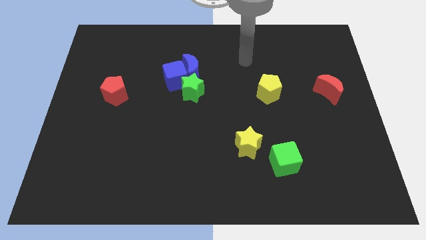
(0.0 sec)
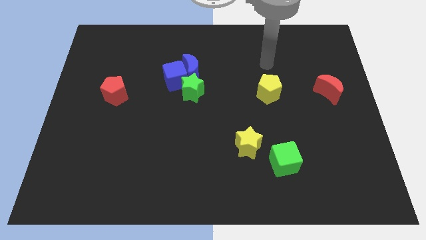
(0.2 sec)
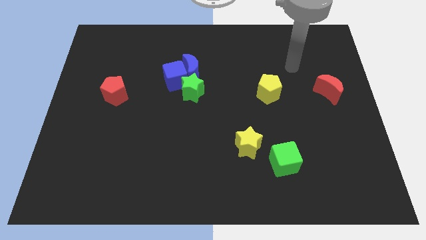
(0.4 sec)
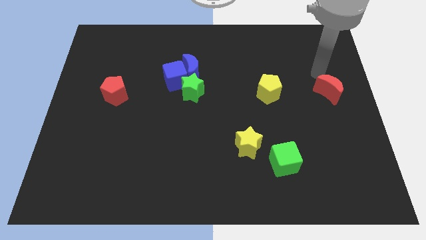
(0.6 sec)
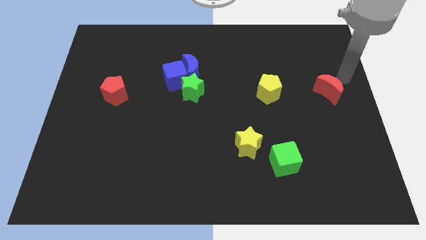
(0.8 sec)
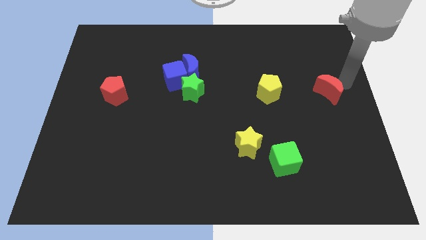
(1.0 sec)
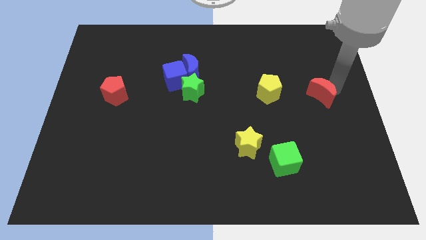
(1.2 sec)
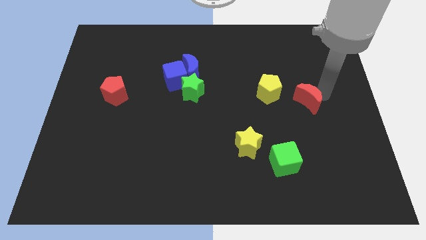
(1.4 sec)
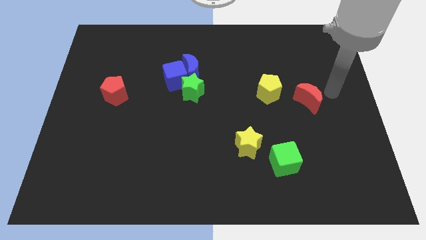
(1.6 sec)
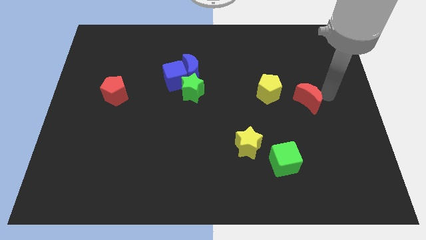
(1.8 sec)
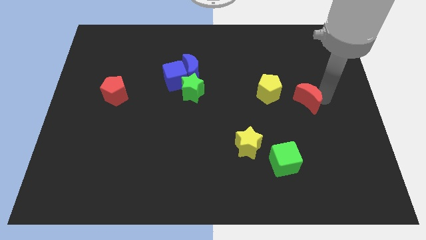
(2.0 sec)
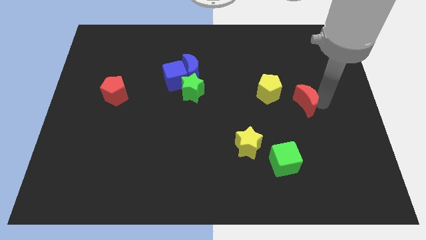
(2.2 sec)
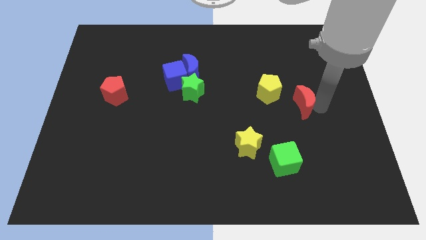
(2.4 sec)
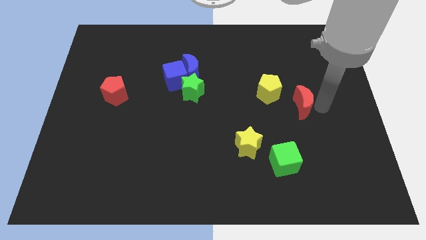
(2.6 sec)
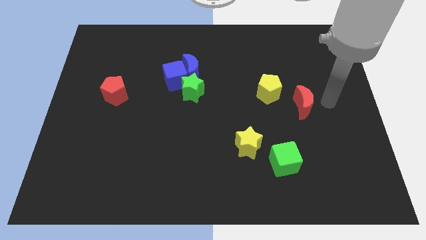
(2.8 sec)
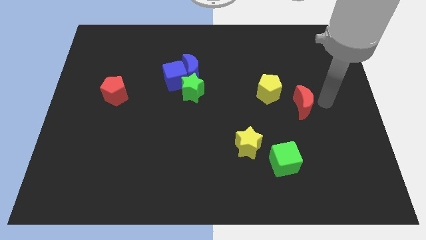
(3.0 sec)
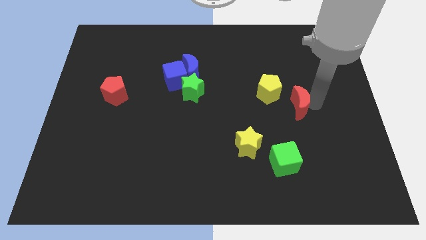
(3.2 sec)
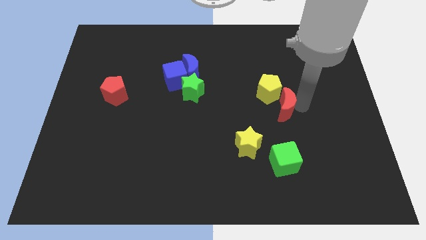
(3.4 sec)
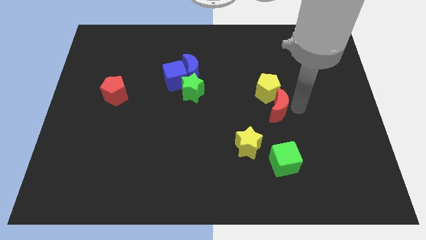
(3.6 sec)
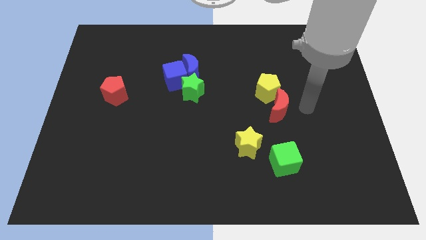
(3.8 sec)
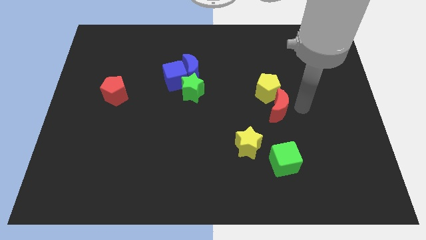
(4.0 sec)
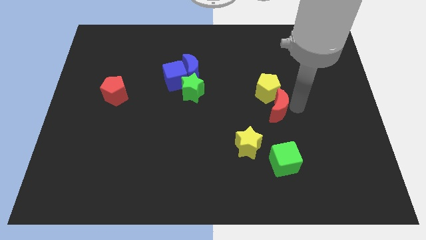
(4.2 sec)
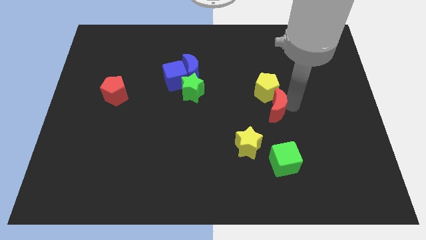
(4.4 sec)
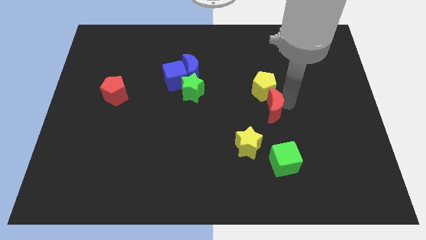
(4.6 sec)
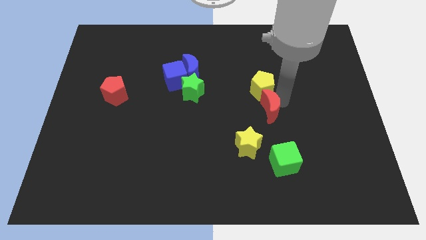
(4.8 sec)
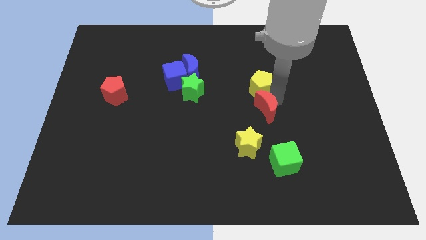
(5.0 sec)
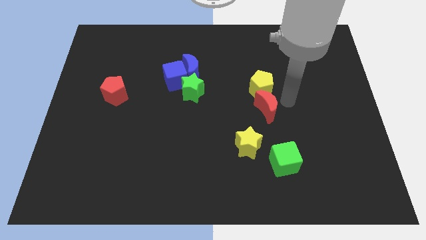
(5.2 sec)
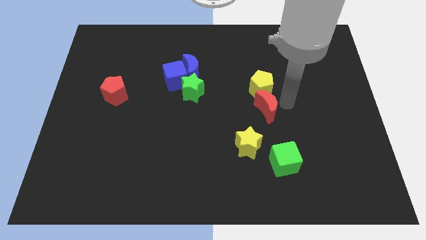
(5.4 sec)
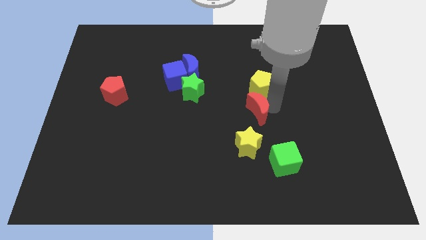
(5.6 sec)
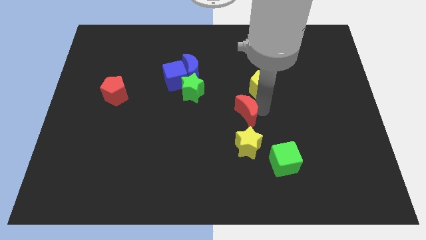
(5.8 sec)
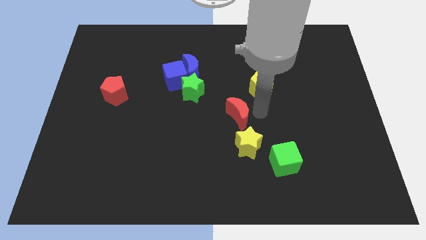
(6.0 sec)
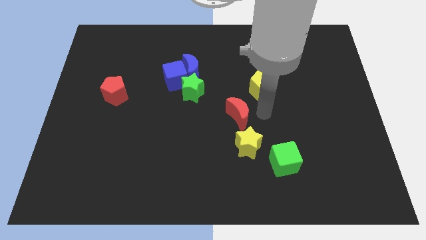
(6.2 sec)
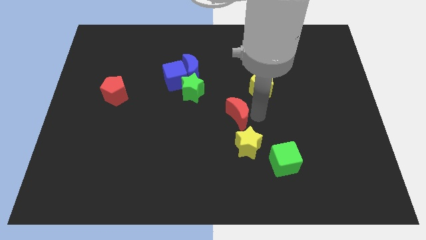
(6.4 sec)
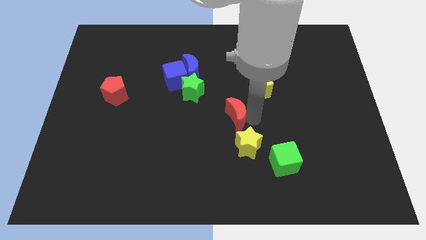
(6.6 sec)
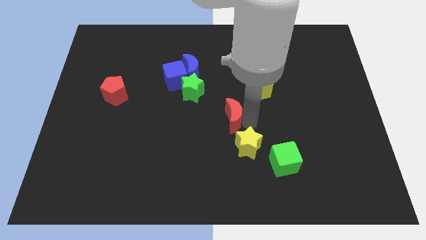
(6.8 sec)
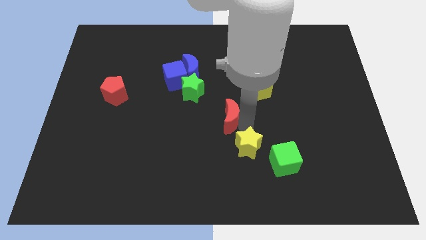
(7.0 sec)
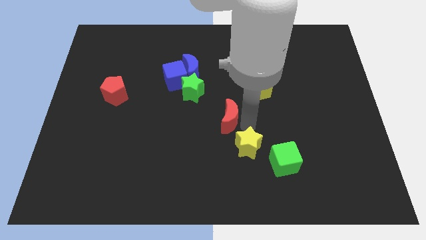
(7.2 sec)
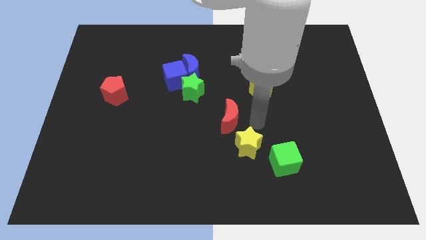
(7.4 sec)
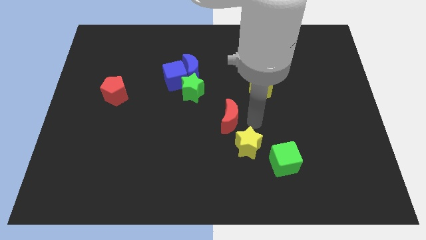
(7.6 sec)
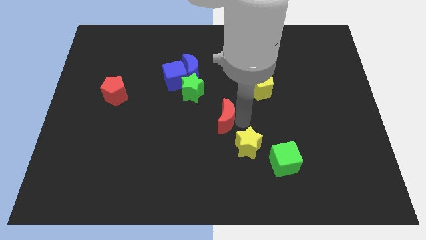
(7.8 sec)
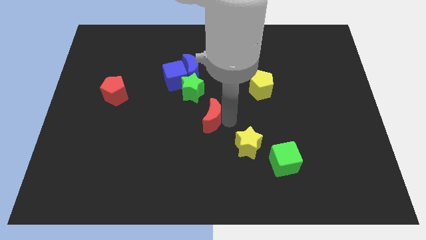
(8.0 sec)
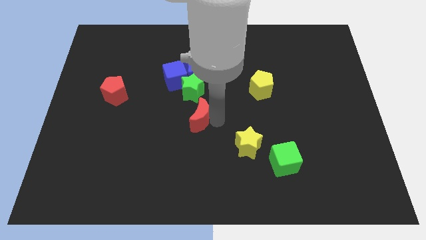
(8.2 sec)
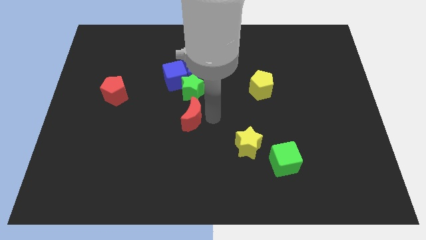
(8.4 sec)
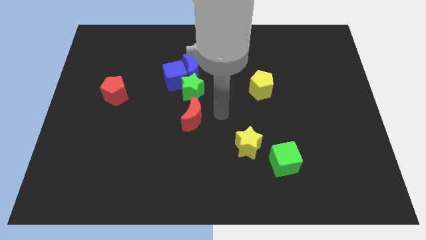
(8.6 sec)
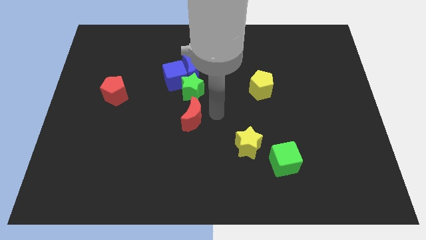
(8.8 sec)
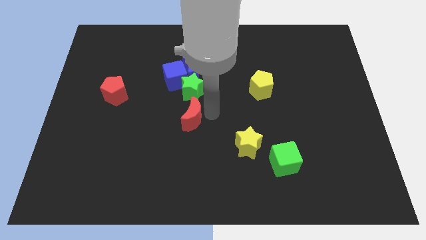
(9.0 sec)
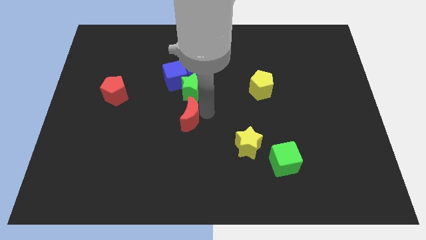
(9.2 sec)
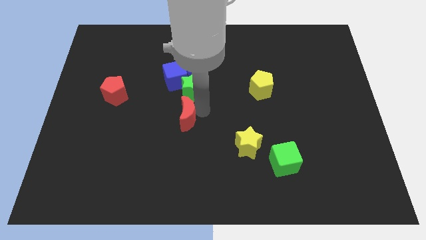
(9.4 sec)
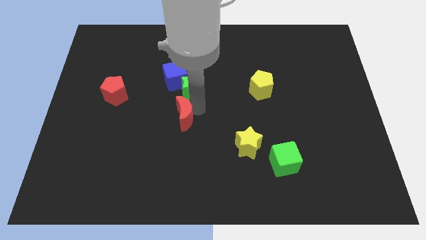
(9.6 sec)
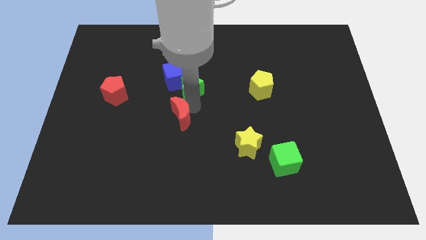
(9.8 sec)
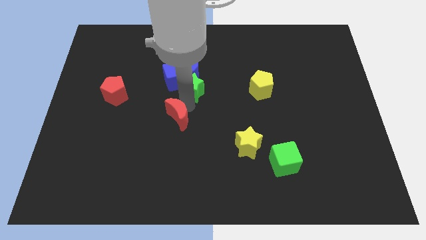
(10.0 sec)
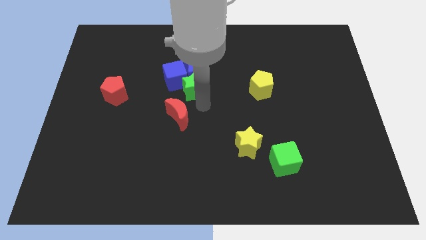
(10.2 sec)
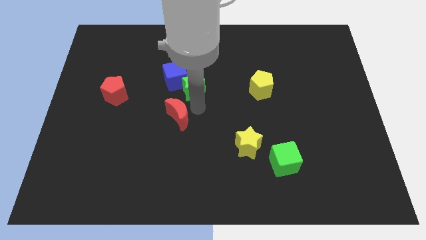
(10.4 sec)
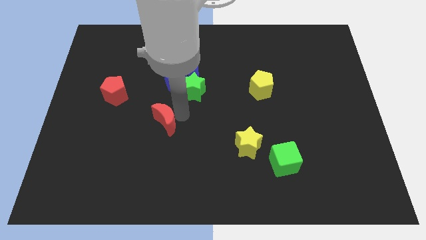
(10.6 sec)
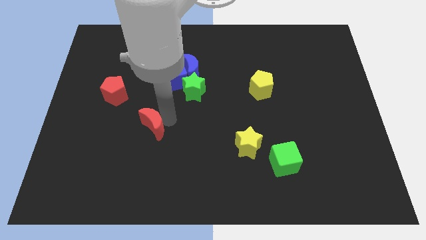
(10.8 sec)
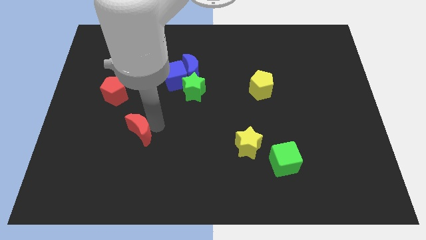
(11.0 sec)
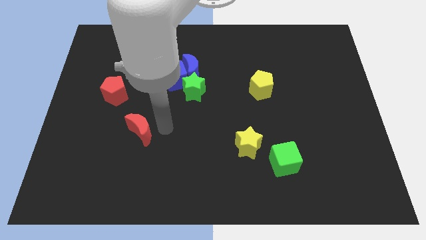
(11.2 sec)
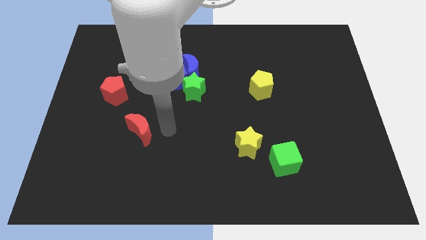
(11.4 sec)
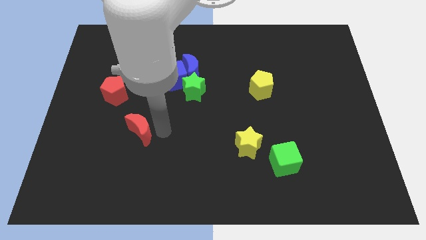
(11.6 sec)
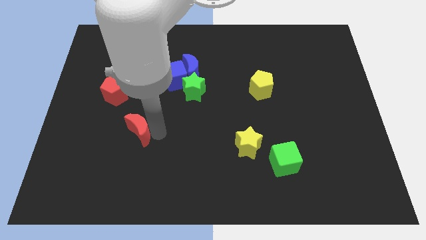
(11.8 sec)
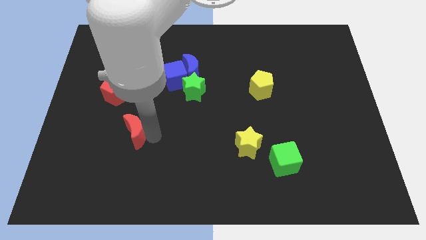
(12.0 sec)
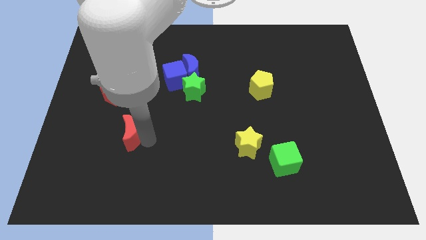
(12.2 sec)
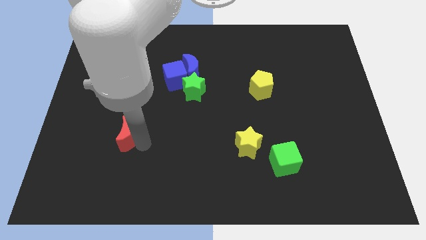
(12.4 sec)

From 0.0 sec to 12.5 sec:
slide the red moon below the red pentagon
